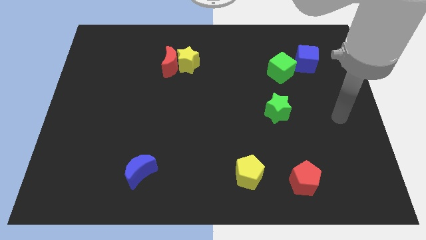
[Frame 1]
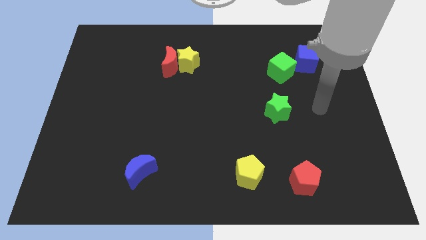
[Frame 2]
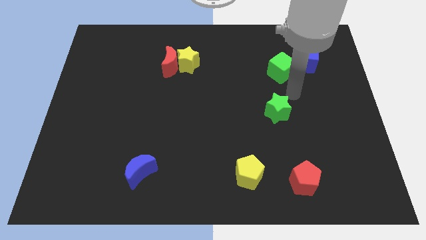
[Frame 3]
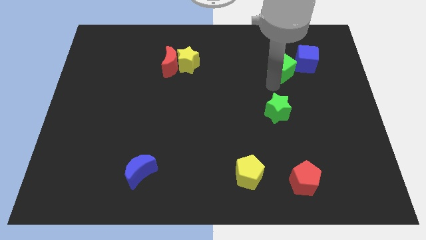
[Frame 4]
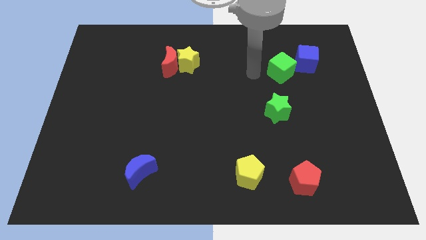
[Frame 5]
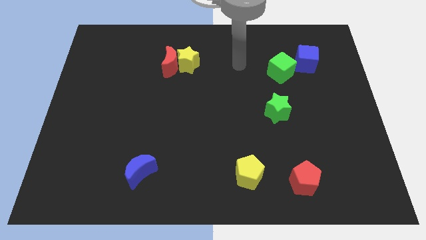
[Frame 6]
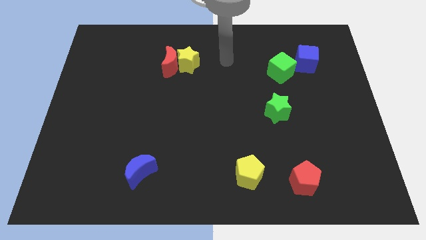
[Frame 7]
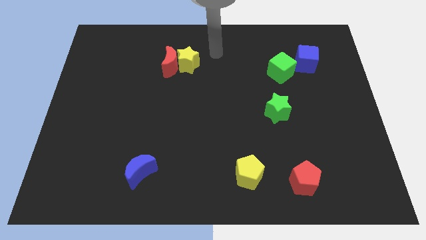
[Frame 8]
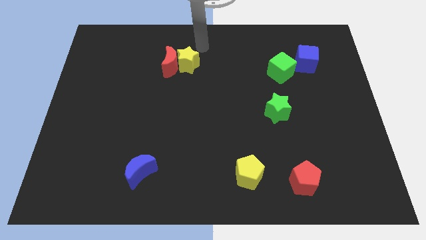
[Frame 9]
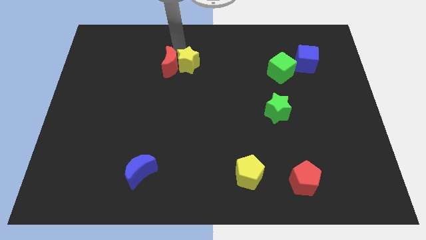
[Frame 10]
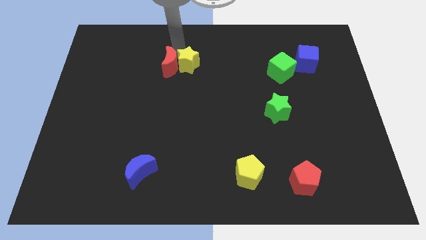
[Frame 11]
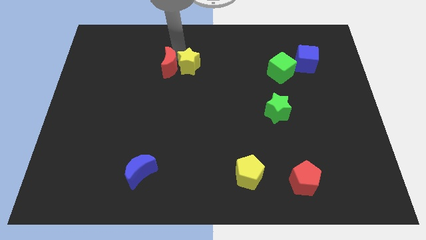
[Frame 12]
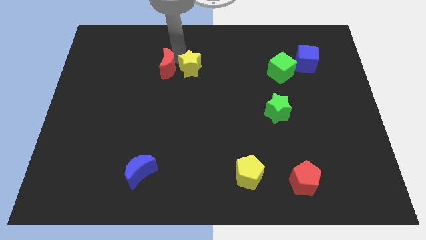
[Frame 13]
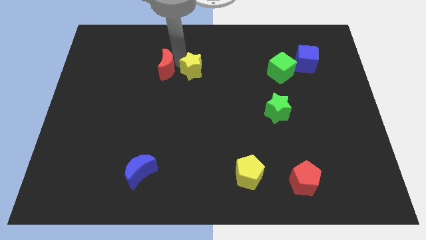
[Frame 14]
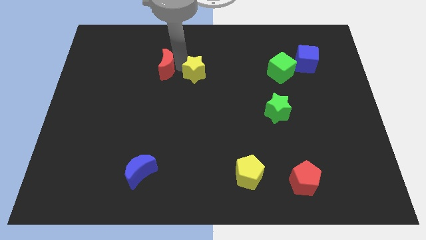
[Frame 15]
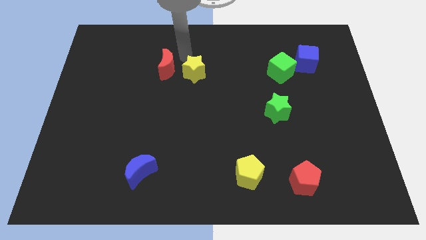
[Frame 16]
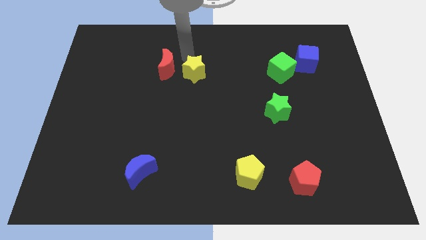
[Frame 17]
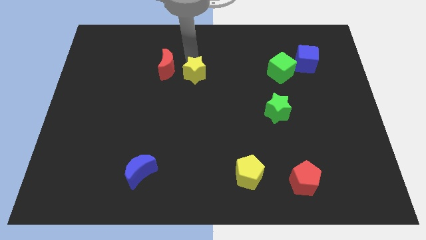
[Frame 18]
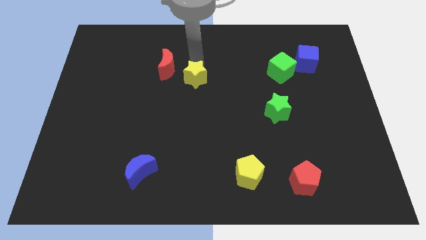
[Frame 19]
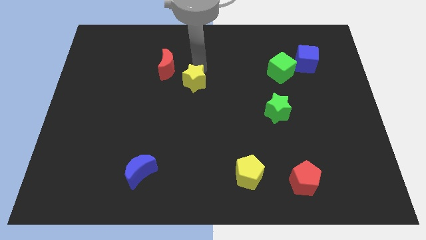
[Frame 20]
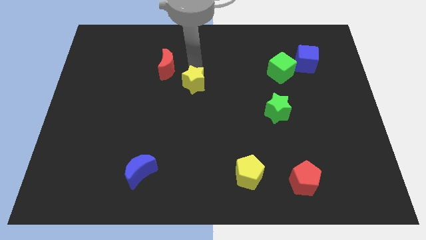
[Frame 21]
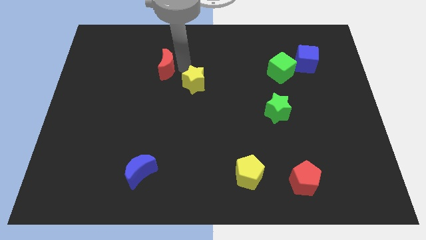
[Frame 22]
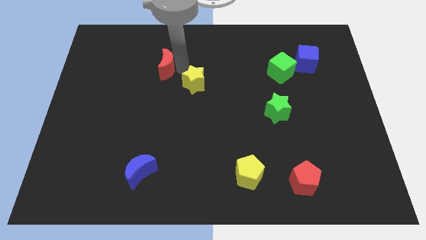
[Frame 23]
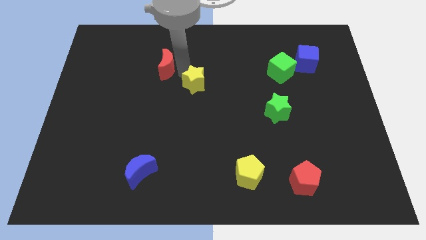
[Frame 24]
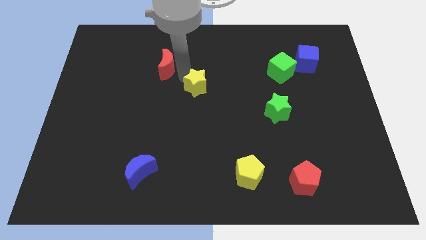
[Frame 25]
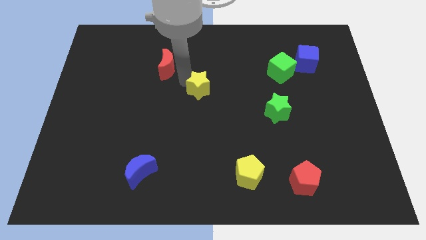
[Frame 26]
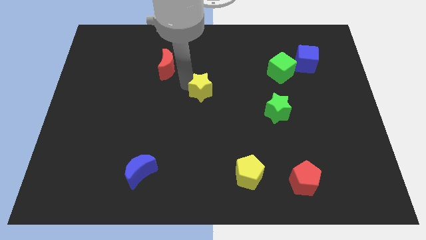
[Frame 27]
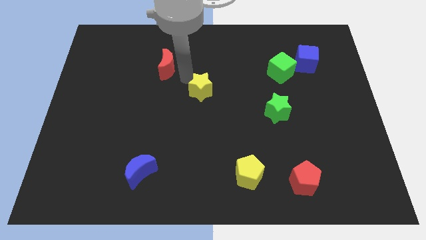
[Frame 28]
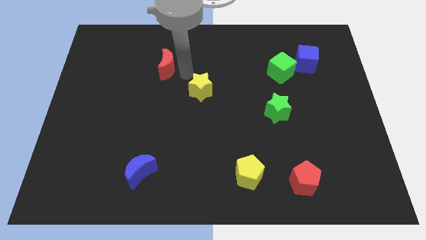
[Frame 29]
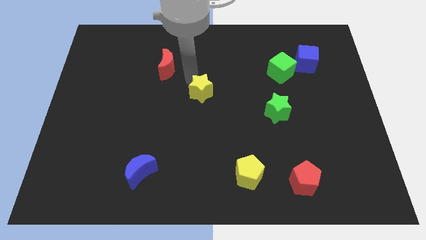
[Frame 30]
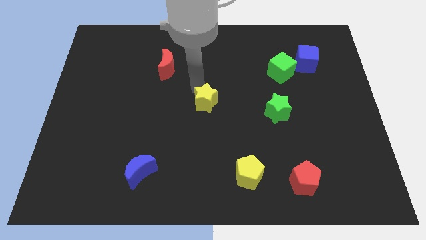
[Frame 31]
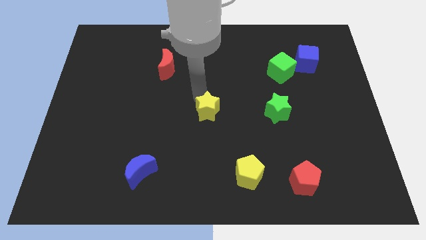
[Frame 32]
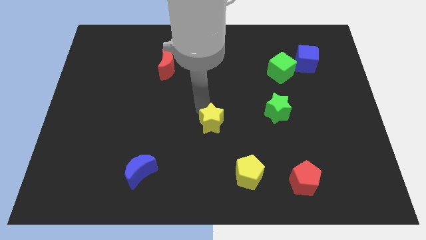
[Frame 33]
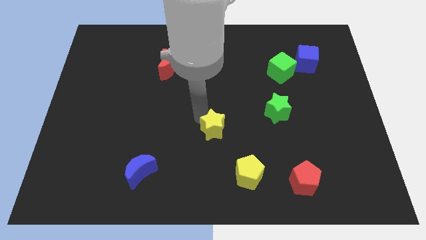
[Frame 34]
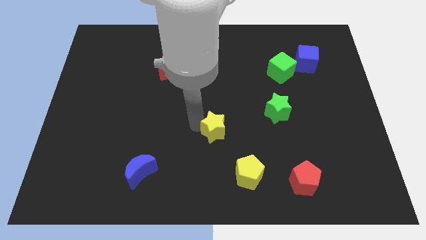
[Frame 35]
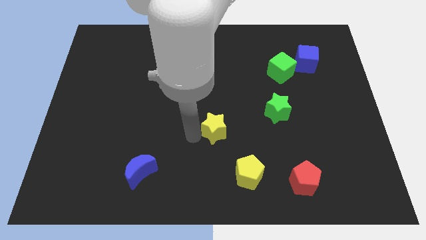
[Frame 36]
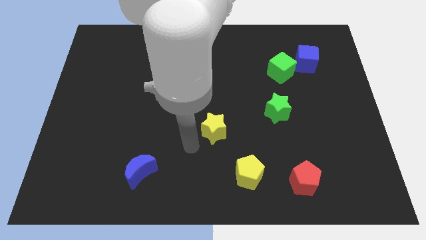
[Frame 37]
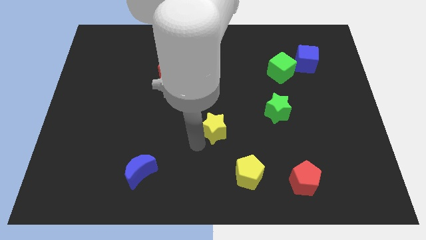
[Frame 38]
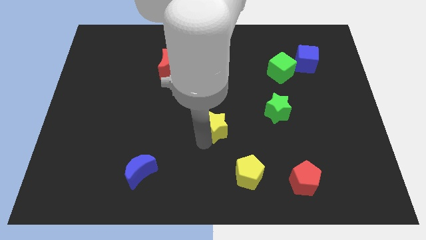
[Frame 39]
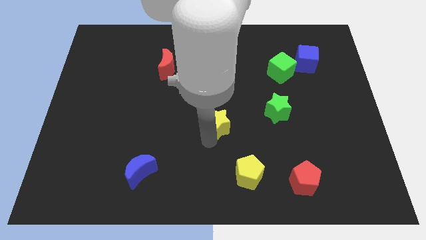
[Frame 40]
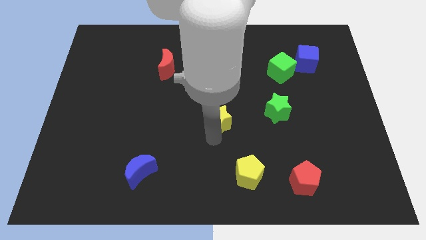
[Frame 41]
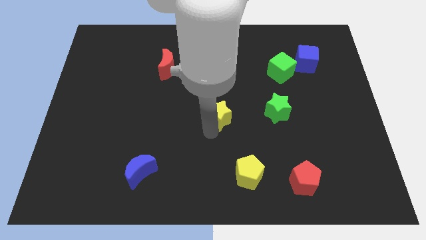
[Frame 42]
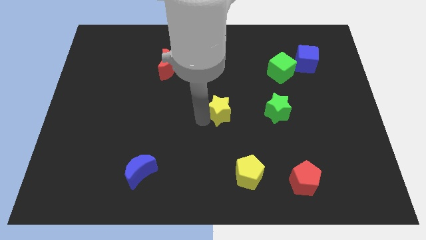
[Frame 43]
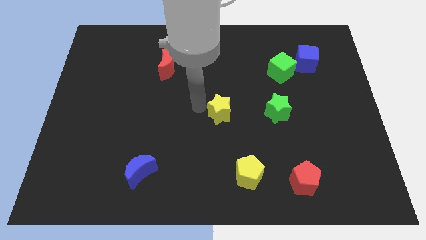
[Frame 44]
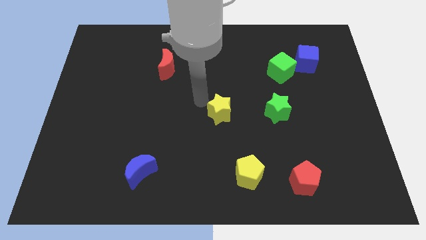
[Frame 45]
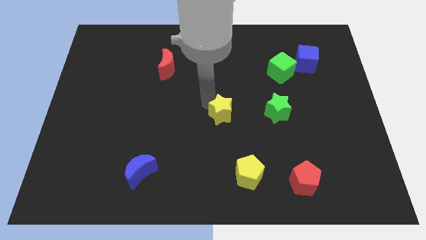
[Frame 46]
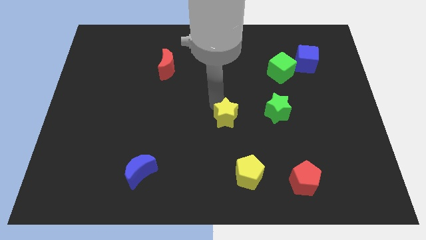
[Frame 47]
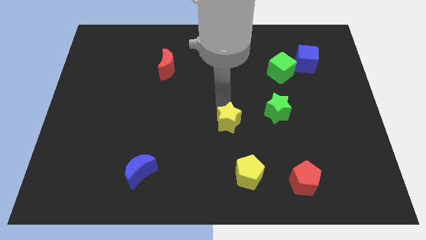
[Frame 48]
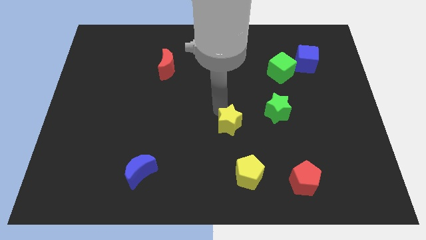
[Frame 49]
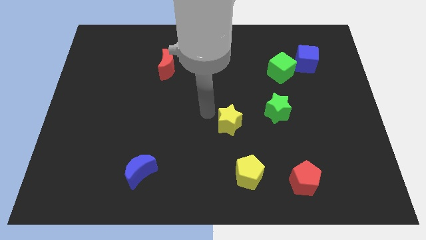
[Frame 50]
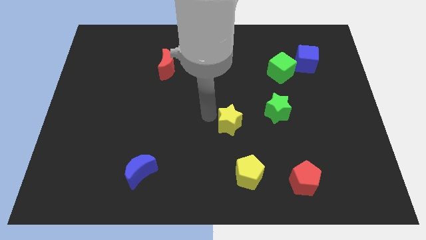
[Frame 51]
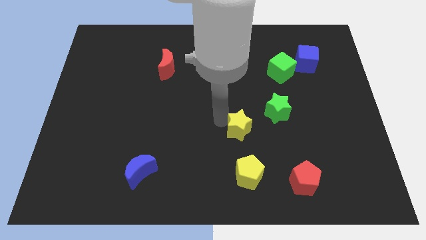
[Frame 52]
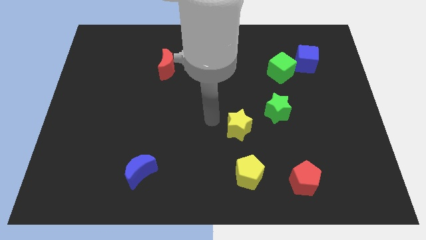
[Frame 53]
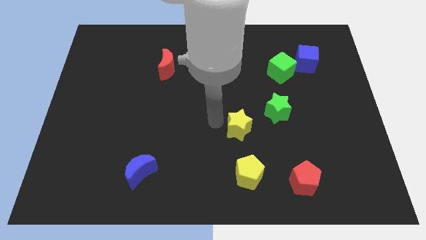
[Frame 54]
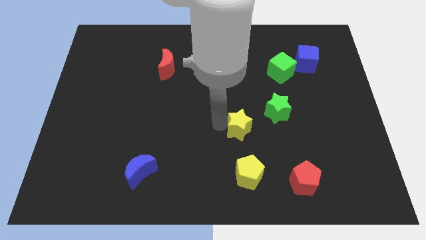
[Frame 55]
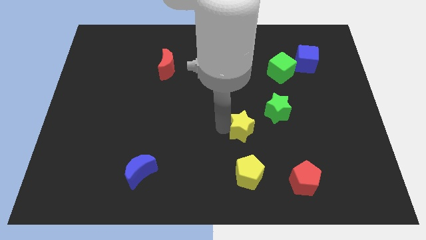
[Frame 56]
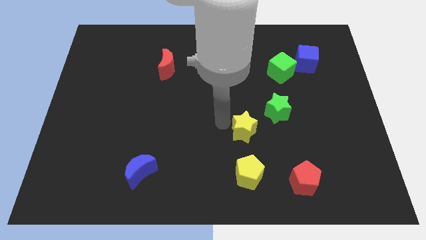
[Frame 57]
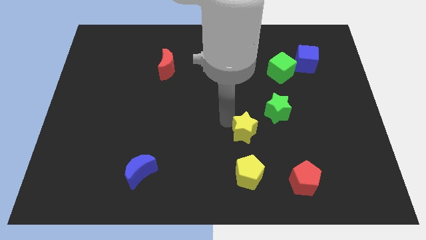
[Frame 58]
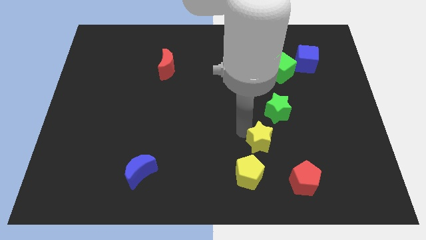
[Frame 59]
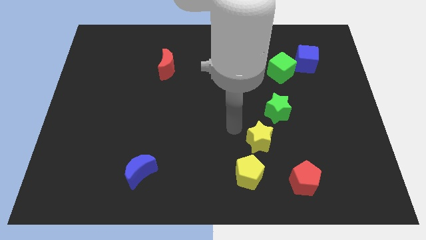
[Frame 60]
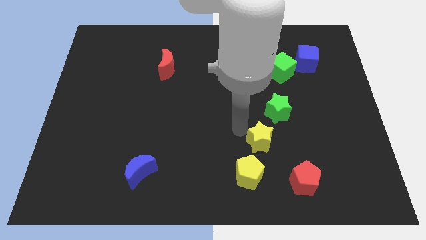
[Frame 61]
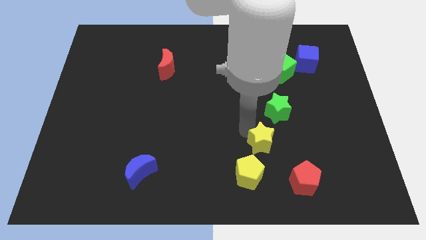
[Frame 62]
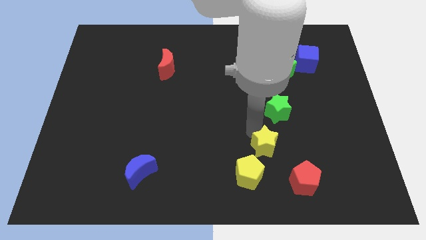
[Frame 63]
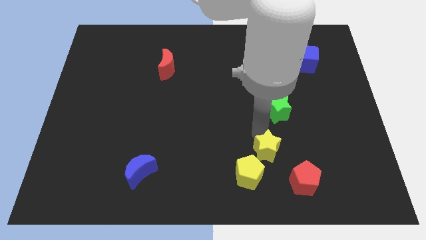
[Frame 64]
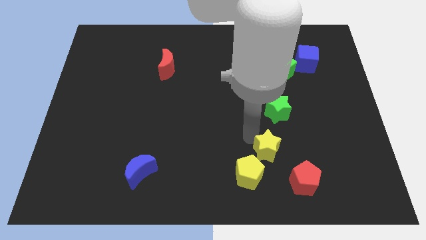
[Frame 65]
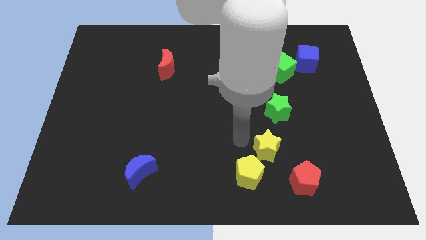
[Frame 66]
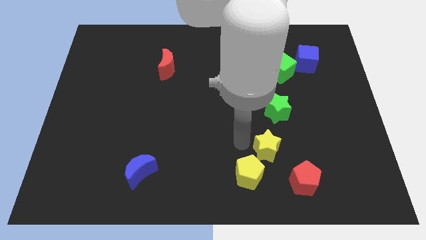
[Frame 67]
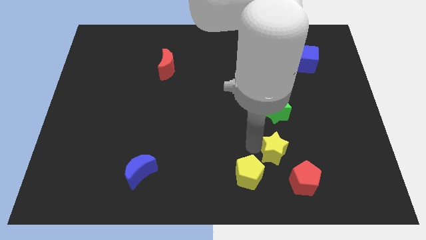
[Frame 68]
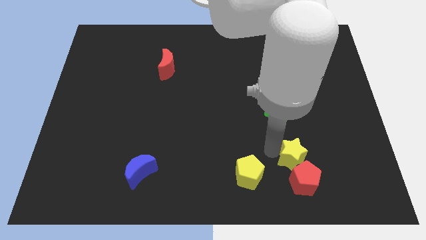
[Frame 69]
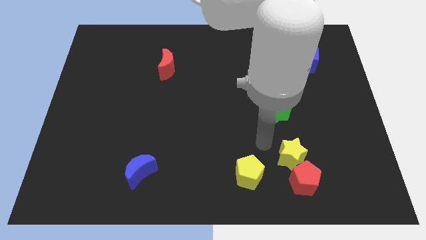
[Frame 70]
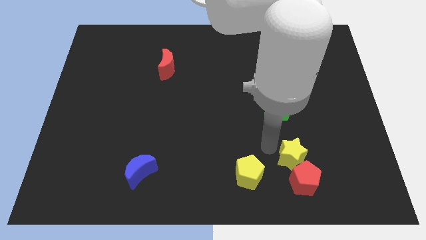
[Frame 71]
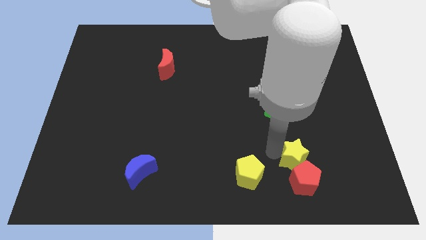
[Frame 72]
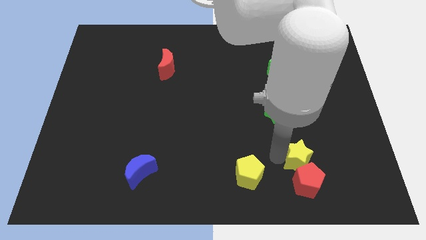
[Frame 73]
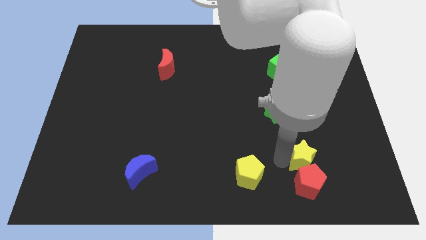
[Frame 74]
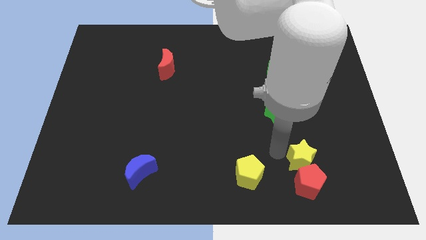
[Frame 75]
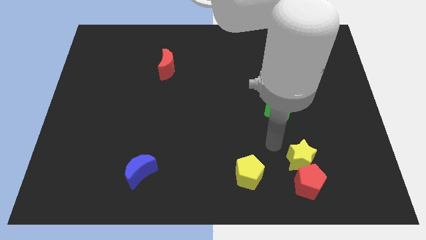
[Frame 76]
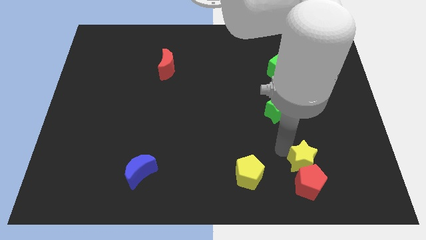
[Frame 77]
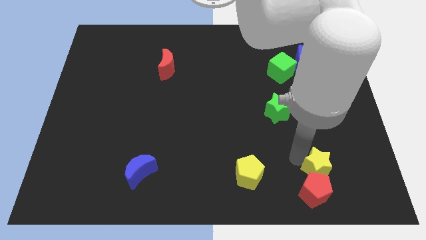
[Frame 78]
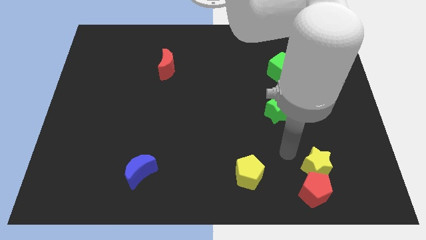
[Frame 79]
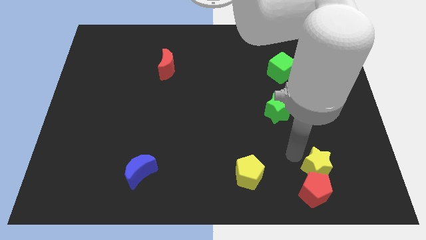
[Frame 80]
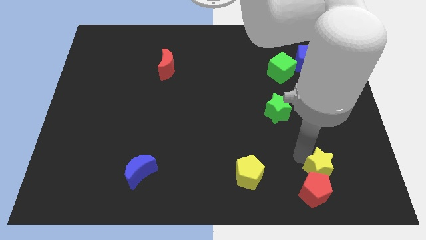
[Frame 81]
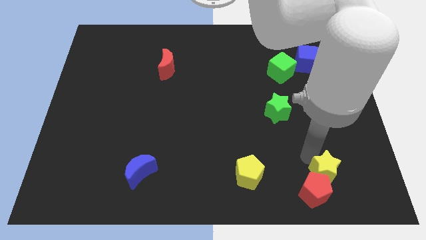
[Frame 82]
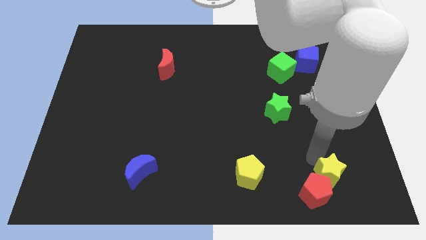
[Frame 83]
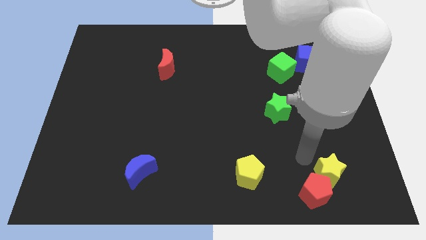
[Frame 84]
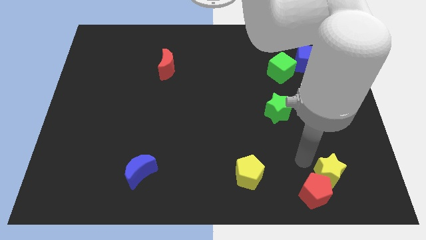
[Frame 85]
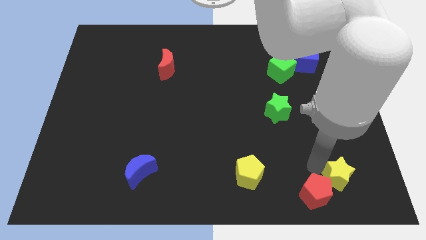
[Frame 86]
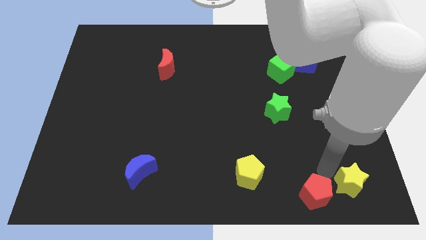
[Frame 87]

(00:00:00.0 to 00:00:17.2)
push the yellow star to the bottom right of the board
